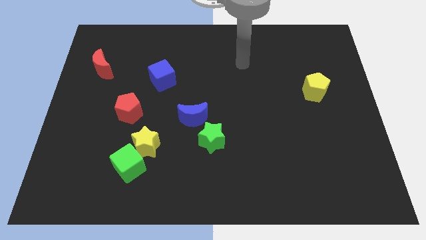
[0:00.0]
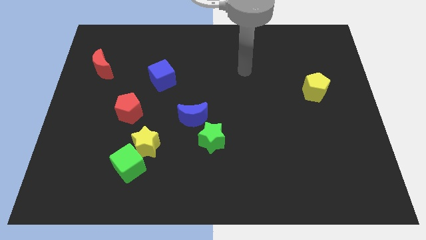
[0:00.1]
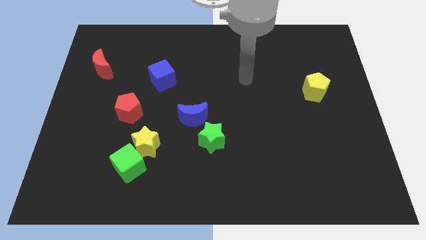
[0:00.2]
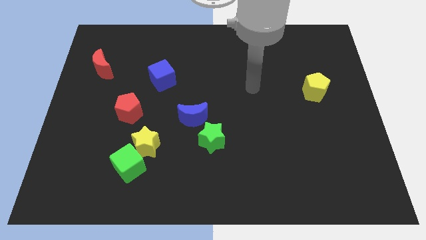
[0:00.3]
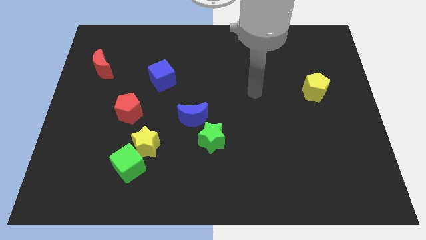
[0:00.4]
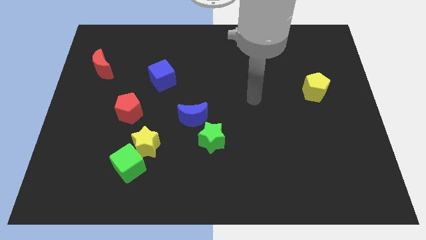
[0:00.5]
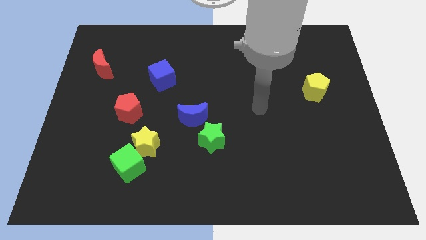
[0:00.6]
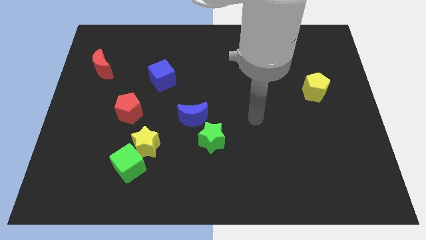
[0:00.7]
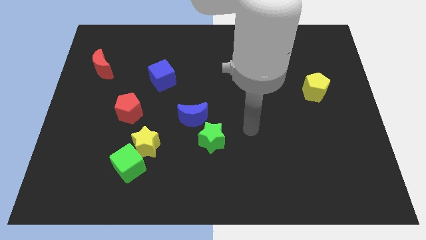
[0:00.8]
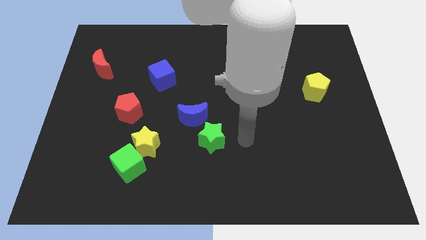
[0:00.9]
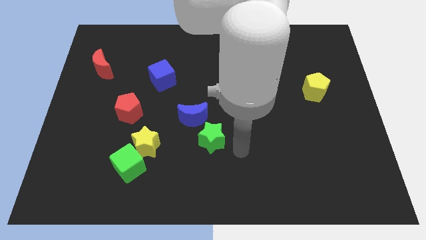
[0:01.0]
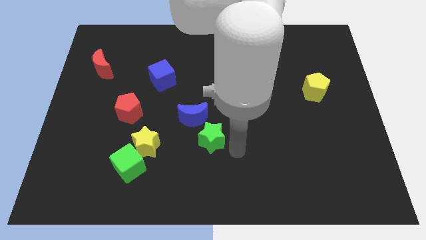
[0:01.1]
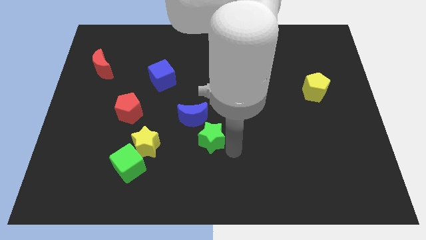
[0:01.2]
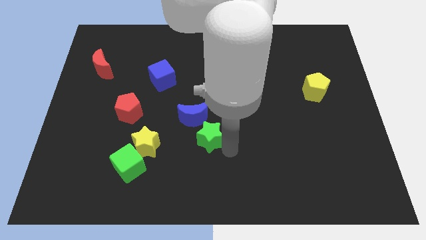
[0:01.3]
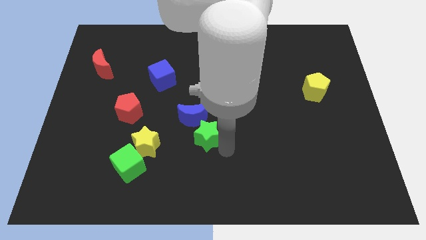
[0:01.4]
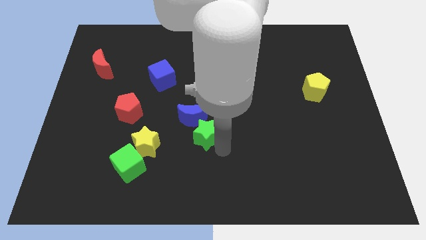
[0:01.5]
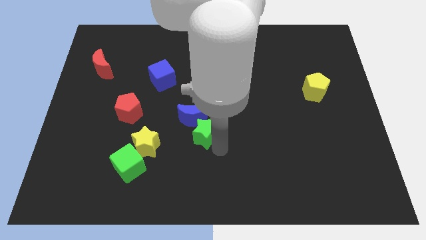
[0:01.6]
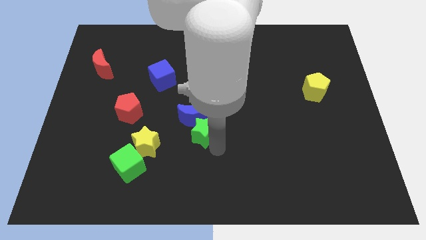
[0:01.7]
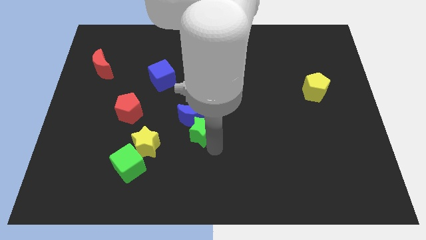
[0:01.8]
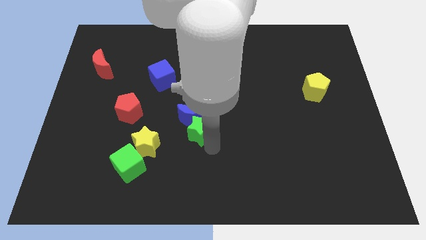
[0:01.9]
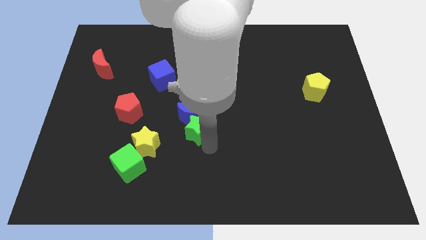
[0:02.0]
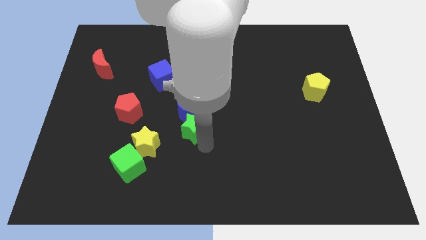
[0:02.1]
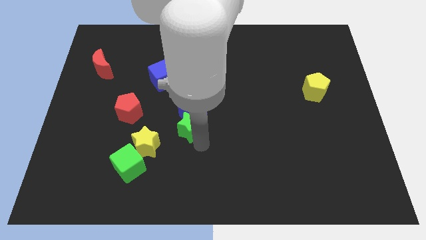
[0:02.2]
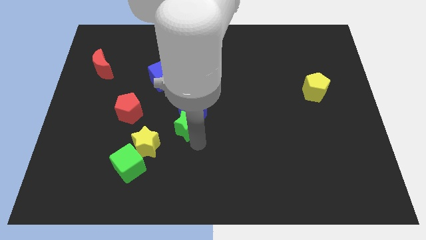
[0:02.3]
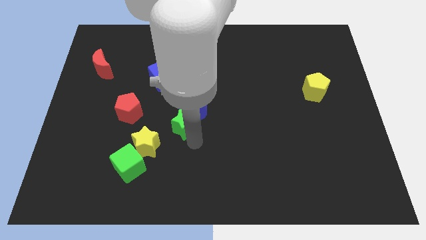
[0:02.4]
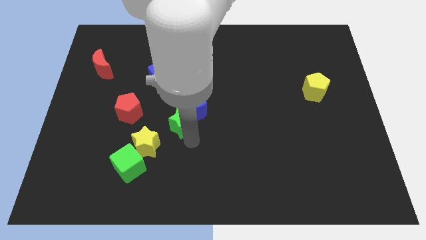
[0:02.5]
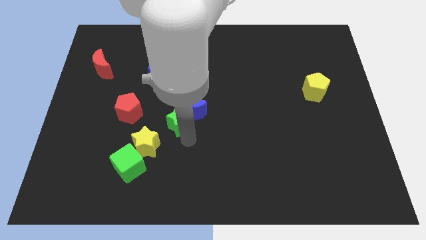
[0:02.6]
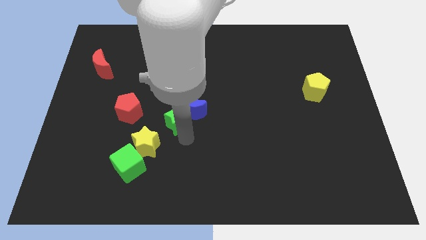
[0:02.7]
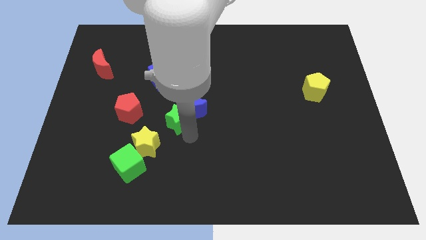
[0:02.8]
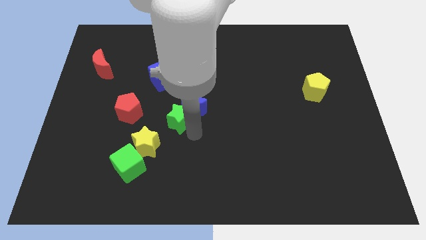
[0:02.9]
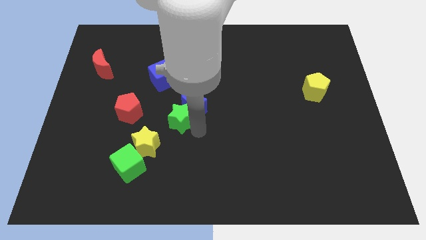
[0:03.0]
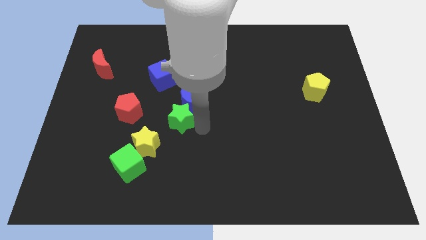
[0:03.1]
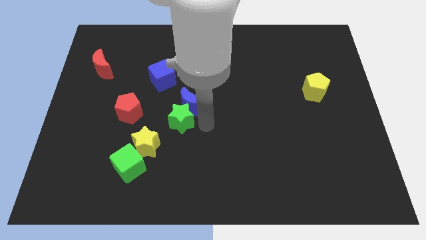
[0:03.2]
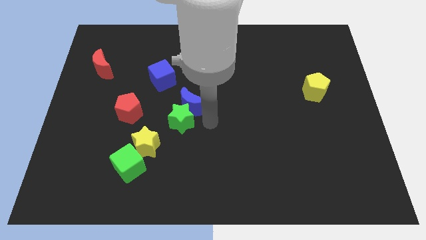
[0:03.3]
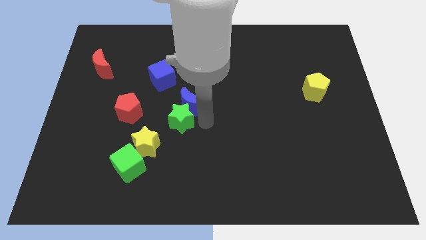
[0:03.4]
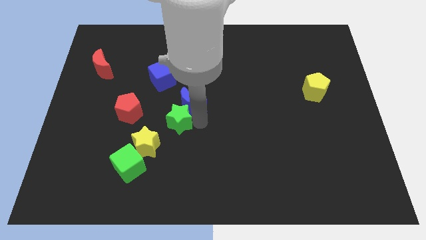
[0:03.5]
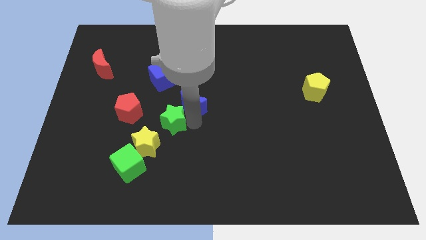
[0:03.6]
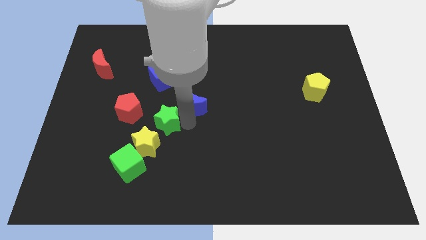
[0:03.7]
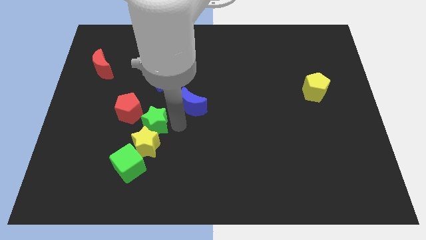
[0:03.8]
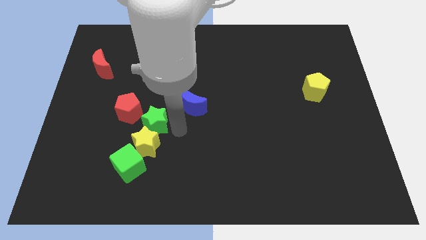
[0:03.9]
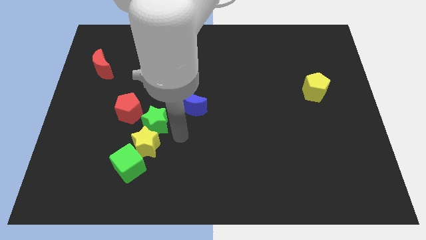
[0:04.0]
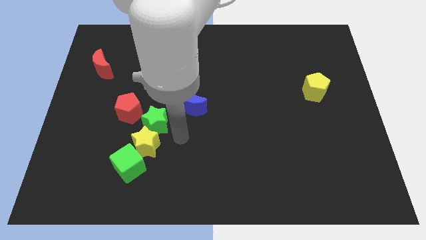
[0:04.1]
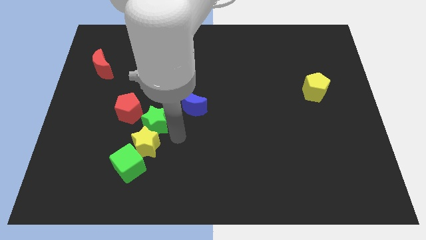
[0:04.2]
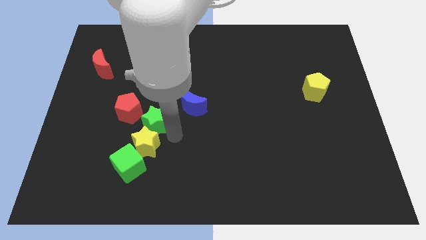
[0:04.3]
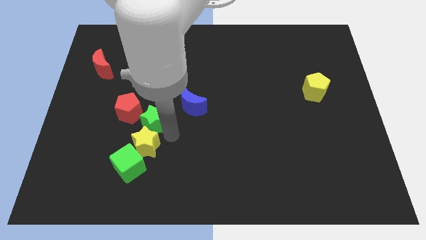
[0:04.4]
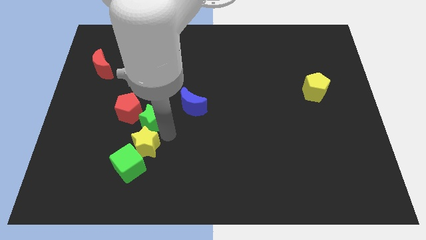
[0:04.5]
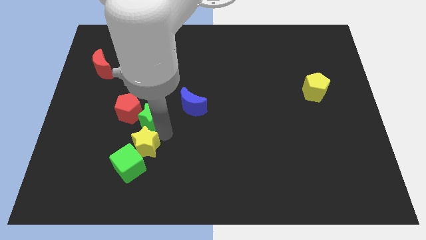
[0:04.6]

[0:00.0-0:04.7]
move the green star close to the red pentagon

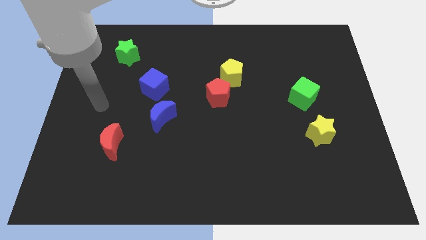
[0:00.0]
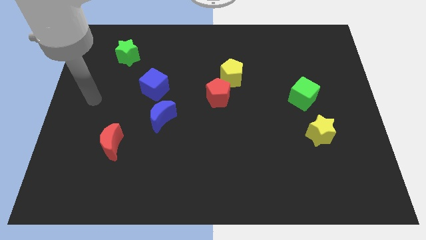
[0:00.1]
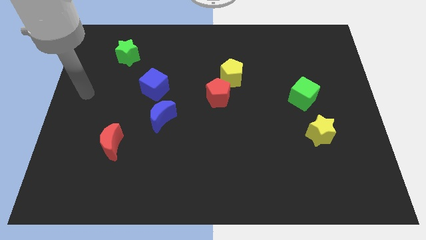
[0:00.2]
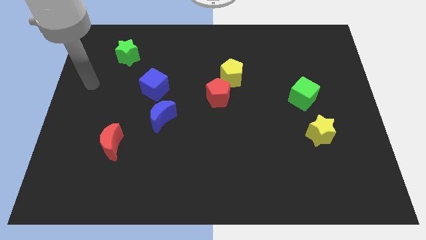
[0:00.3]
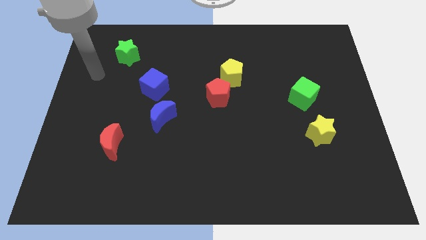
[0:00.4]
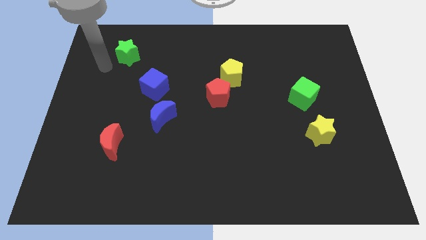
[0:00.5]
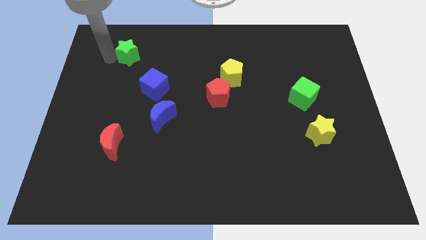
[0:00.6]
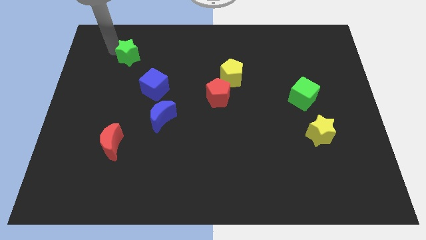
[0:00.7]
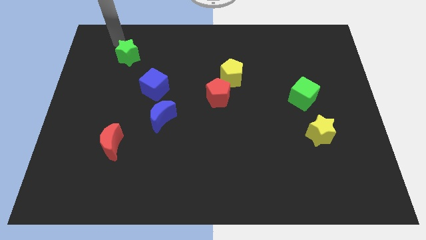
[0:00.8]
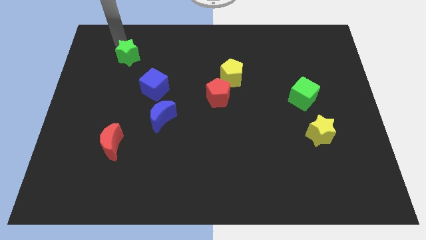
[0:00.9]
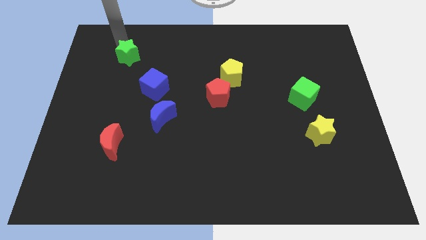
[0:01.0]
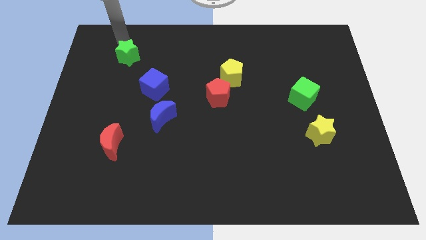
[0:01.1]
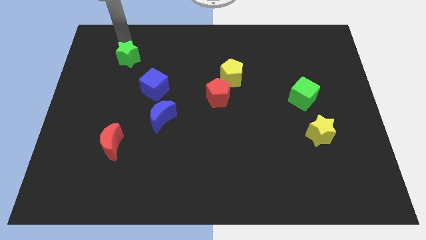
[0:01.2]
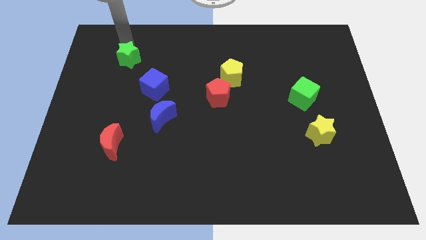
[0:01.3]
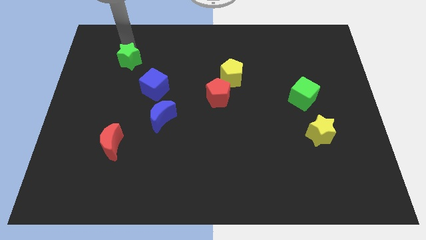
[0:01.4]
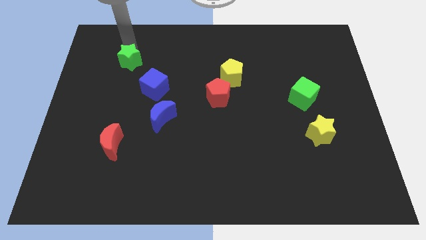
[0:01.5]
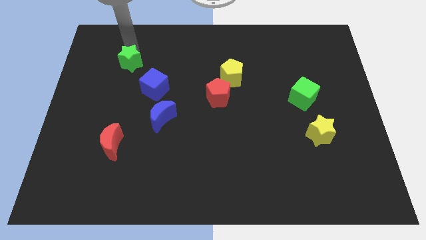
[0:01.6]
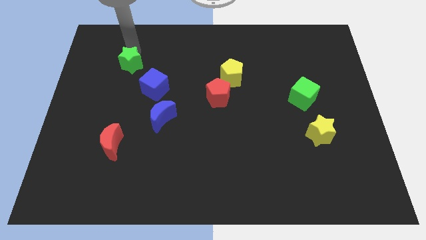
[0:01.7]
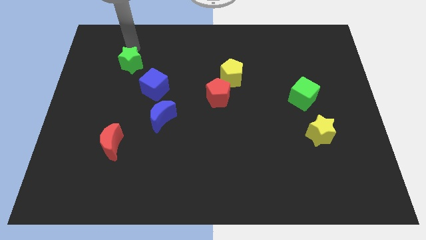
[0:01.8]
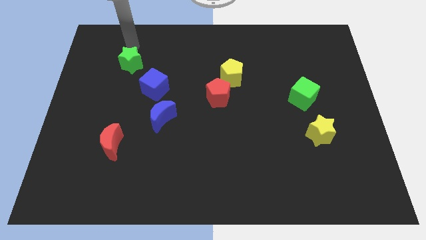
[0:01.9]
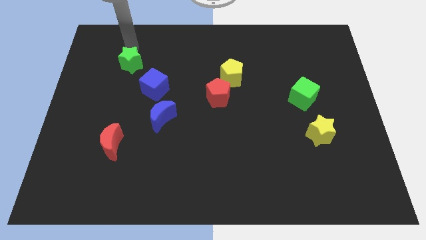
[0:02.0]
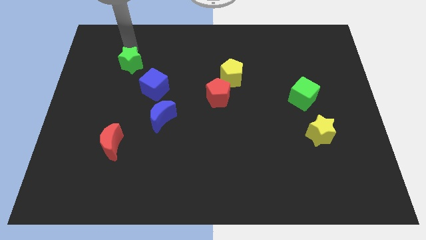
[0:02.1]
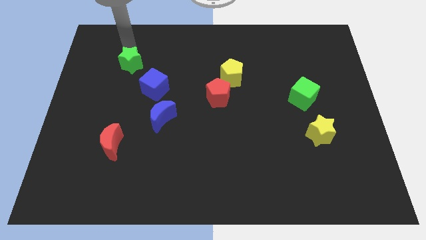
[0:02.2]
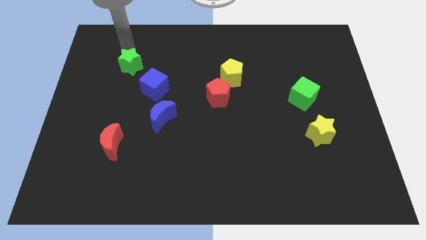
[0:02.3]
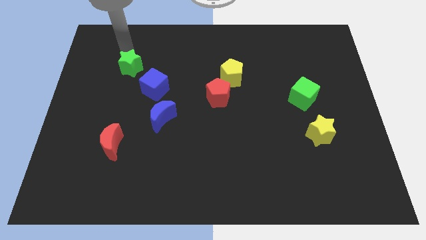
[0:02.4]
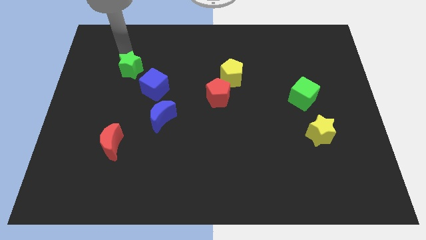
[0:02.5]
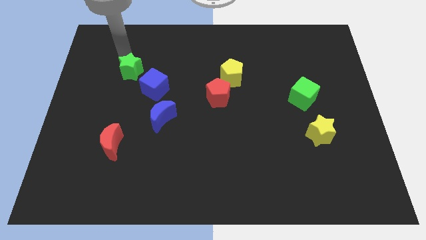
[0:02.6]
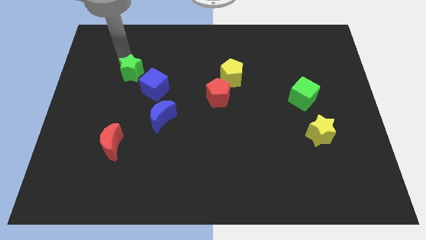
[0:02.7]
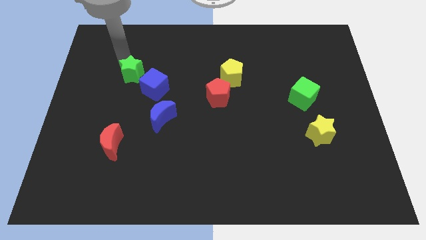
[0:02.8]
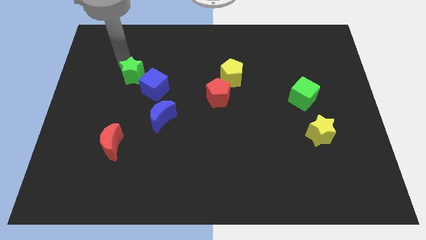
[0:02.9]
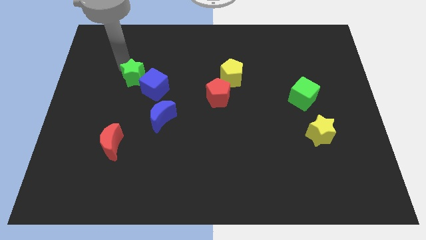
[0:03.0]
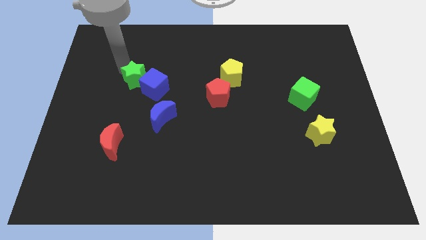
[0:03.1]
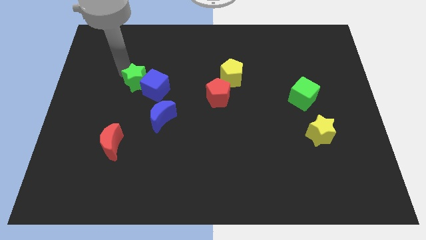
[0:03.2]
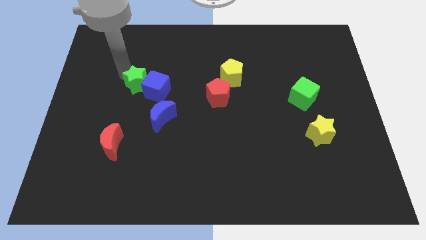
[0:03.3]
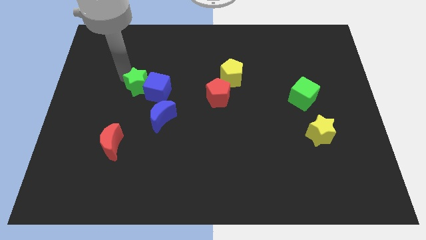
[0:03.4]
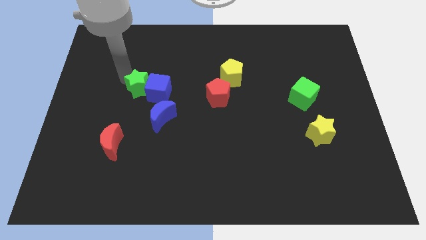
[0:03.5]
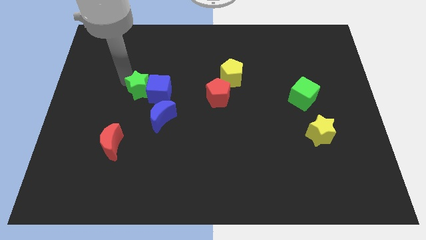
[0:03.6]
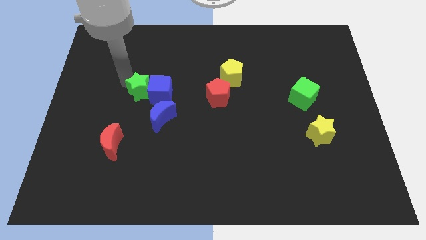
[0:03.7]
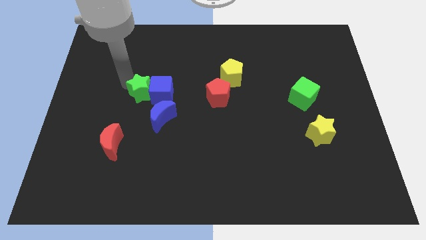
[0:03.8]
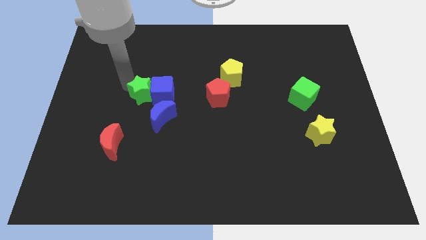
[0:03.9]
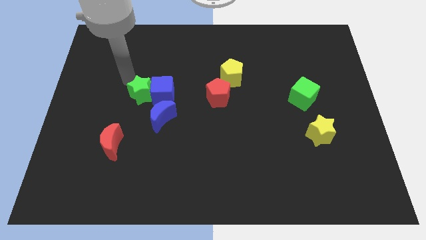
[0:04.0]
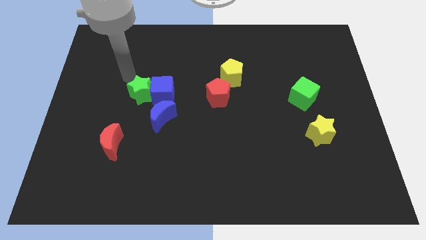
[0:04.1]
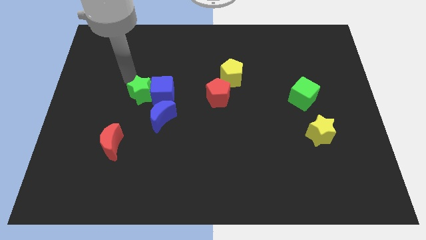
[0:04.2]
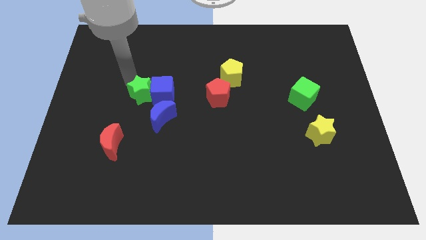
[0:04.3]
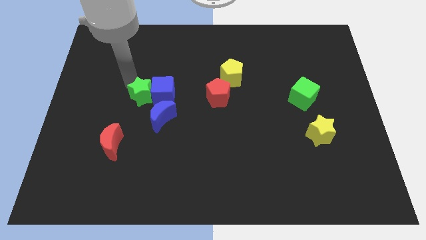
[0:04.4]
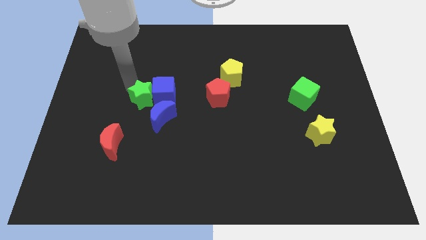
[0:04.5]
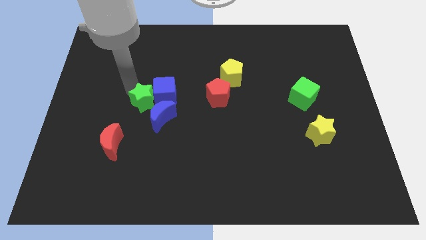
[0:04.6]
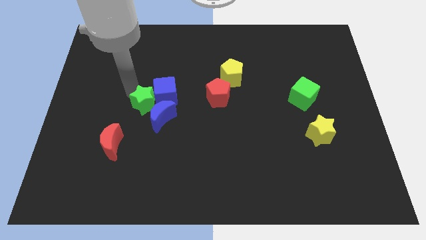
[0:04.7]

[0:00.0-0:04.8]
put the green star towards the blue moon
